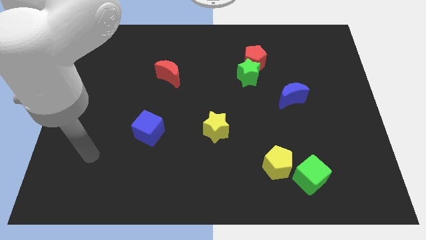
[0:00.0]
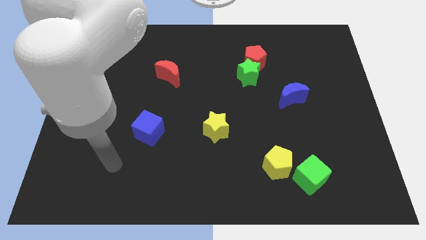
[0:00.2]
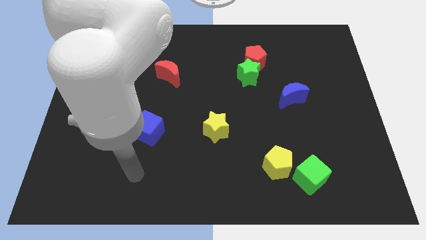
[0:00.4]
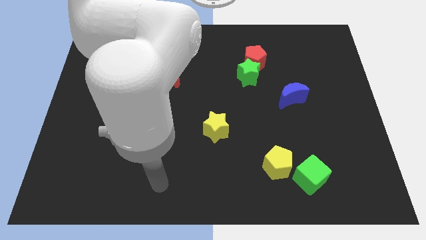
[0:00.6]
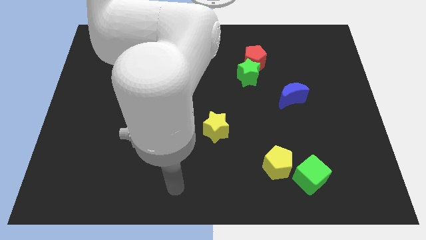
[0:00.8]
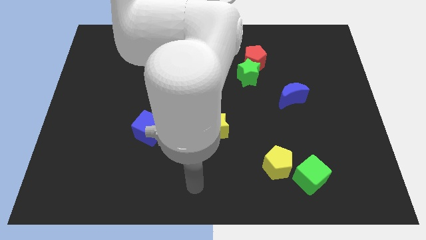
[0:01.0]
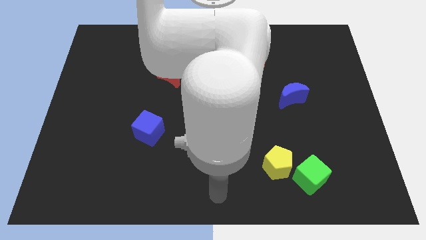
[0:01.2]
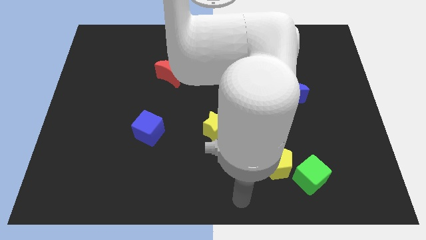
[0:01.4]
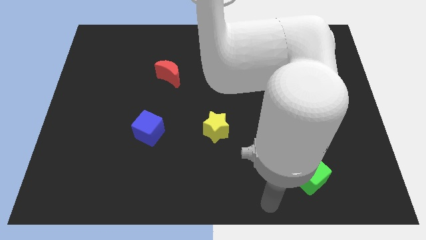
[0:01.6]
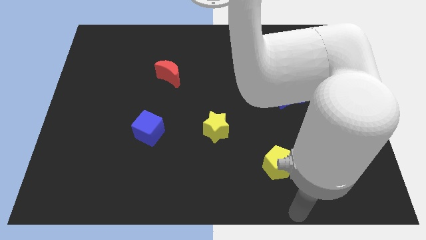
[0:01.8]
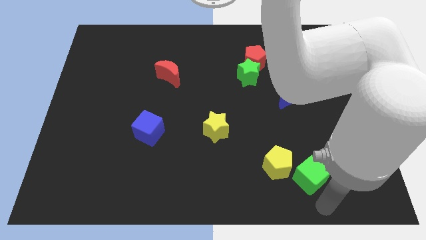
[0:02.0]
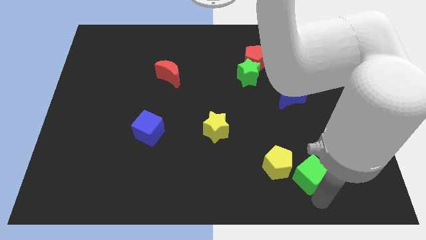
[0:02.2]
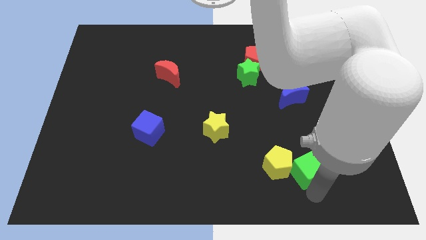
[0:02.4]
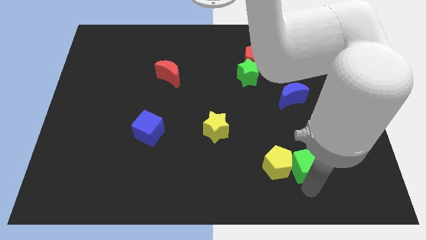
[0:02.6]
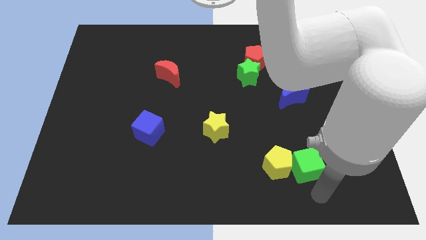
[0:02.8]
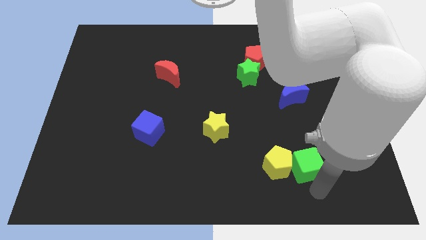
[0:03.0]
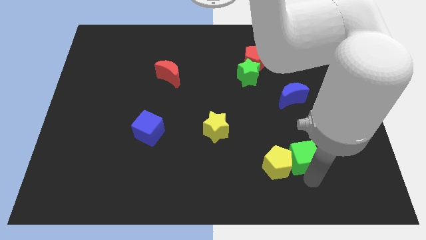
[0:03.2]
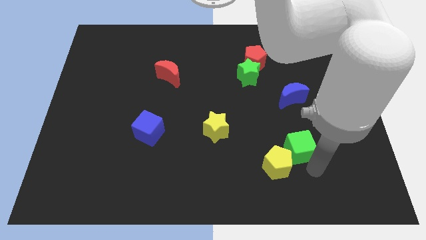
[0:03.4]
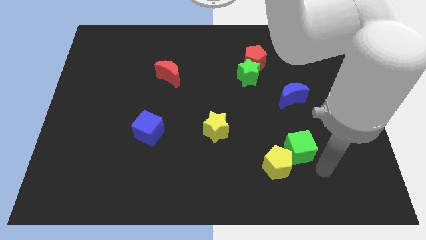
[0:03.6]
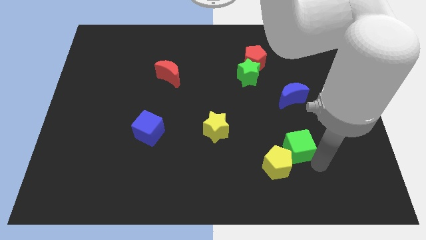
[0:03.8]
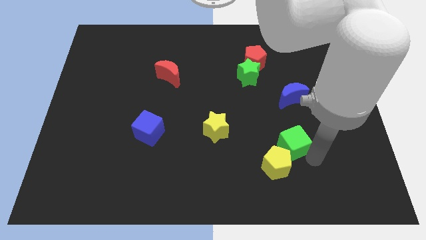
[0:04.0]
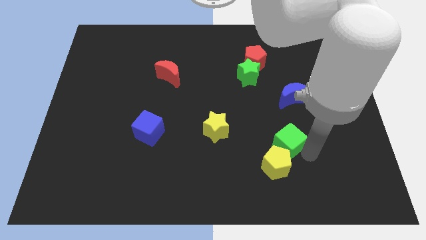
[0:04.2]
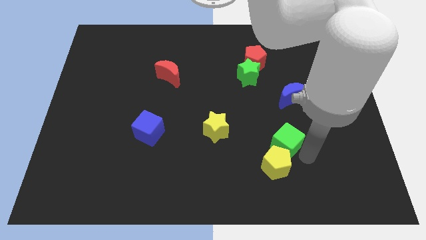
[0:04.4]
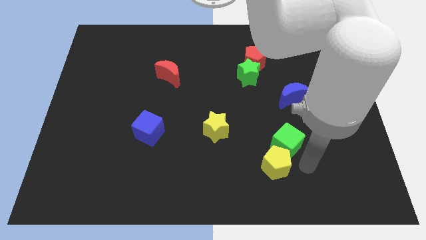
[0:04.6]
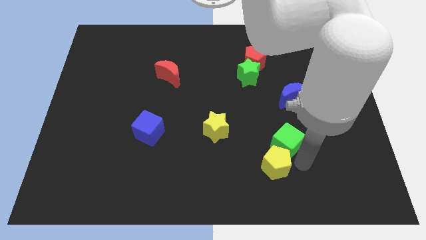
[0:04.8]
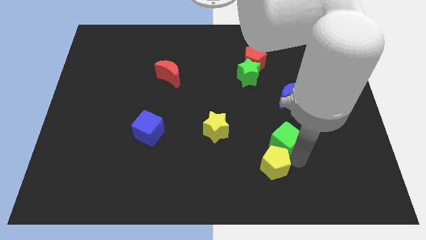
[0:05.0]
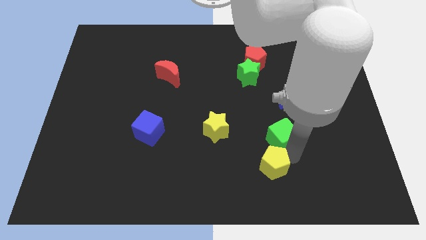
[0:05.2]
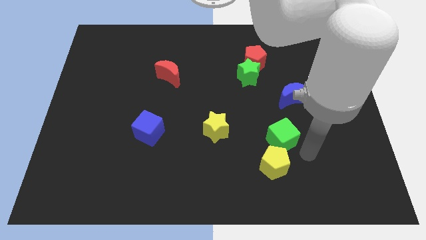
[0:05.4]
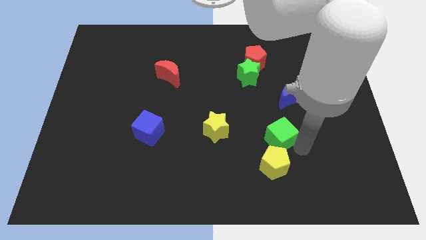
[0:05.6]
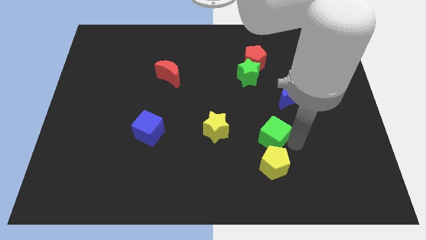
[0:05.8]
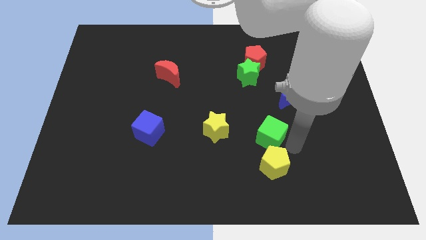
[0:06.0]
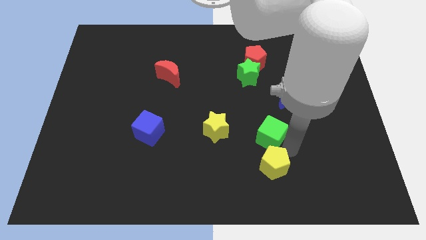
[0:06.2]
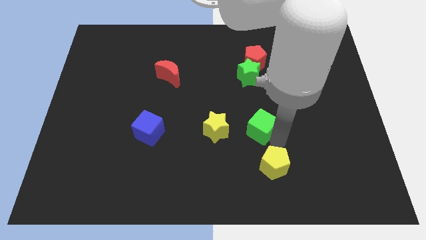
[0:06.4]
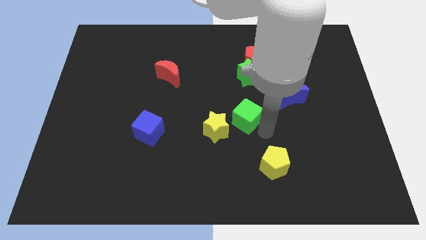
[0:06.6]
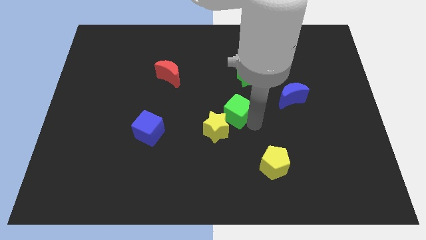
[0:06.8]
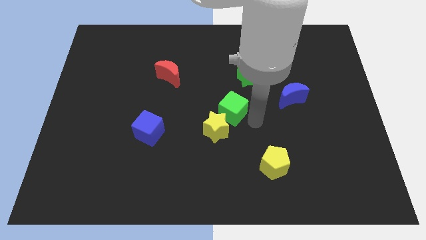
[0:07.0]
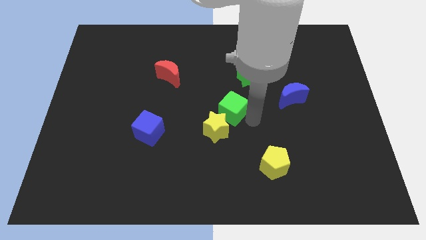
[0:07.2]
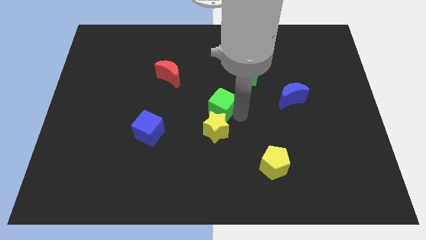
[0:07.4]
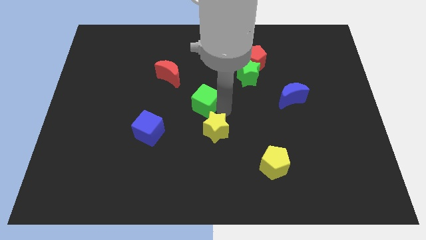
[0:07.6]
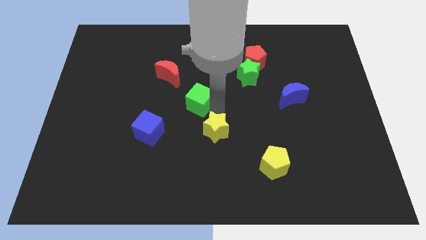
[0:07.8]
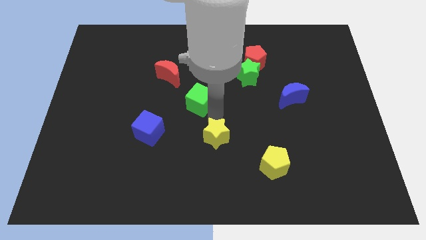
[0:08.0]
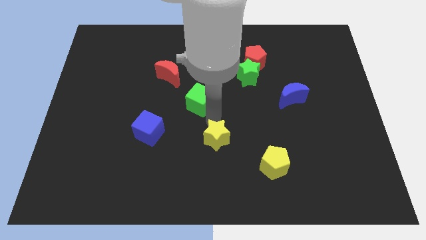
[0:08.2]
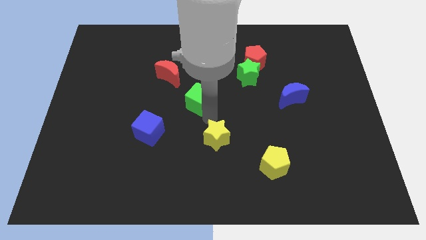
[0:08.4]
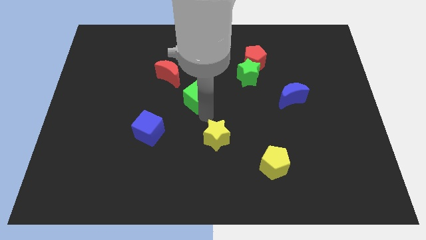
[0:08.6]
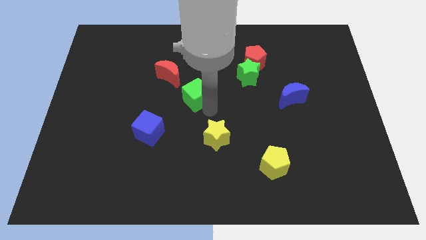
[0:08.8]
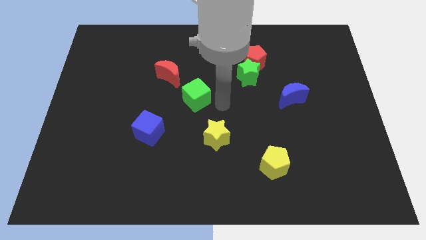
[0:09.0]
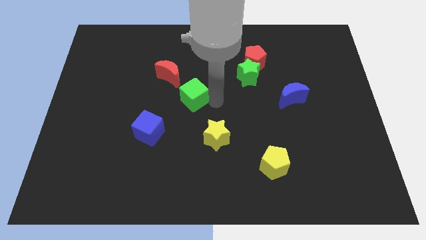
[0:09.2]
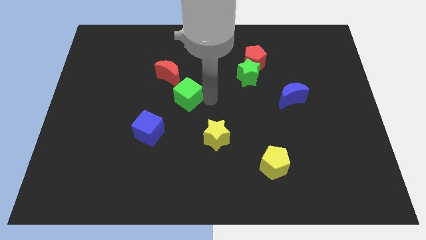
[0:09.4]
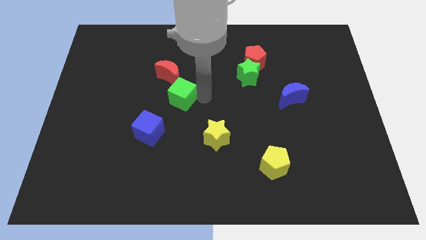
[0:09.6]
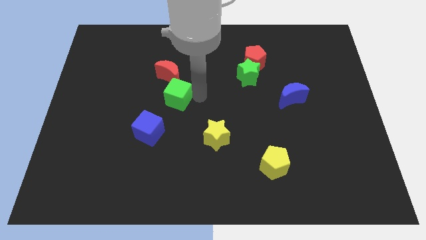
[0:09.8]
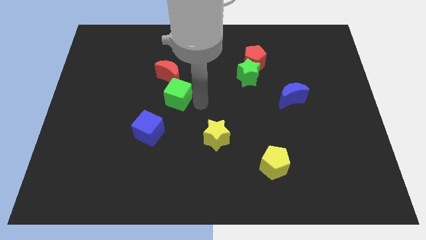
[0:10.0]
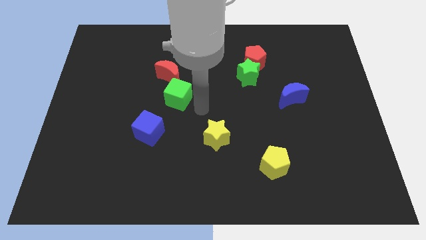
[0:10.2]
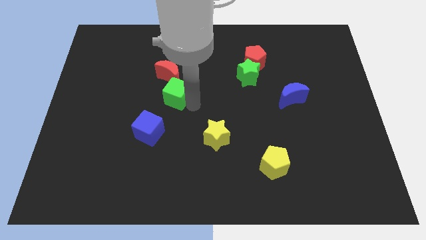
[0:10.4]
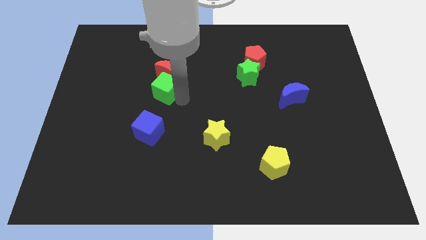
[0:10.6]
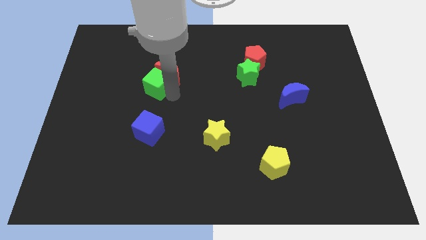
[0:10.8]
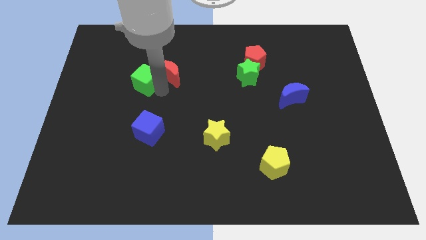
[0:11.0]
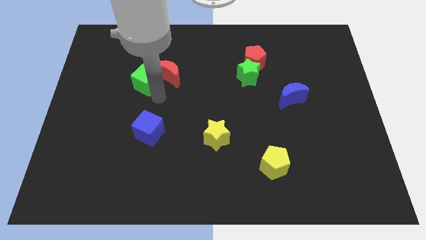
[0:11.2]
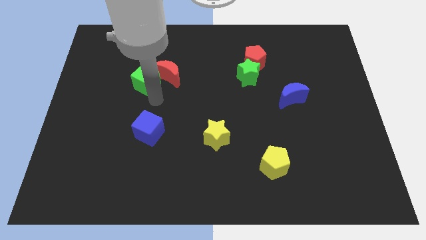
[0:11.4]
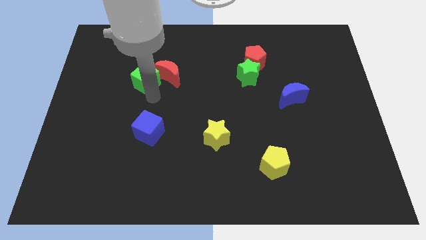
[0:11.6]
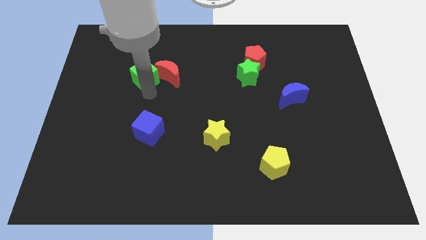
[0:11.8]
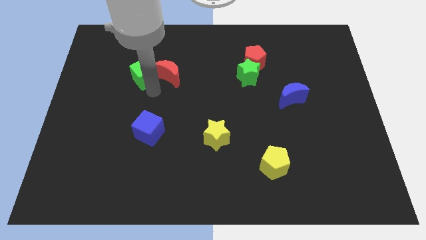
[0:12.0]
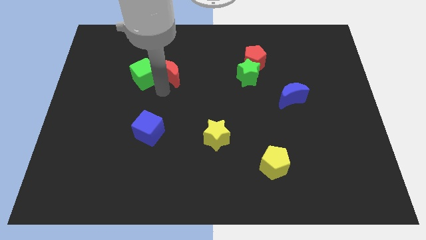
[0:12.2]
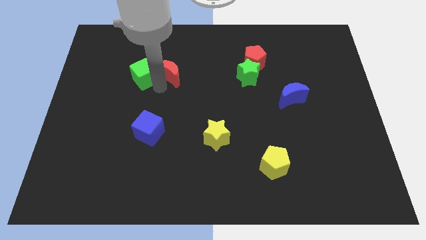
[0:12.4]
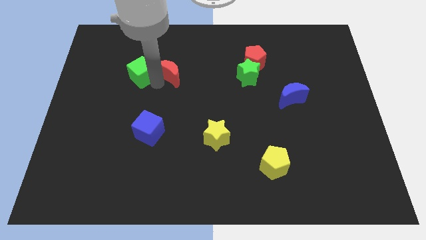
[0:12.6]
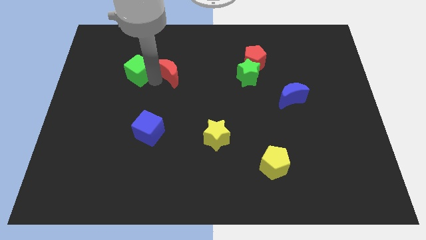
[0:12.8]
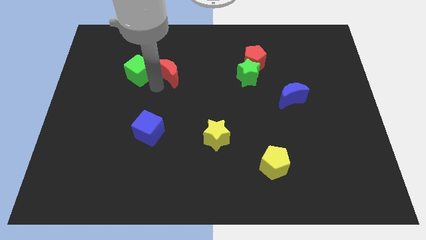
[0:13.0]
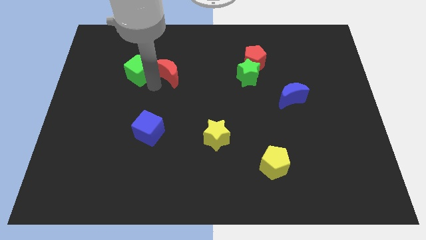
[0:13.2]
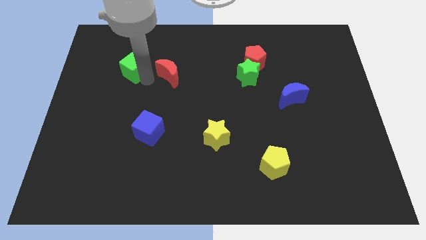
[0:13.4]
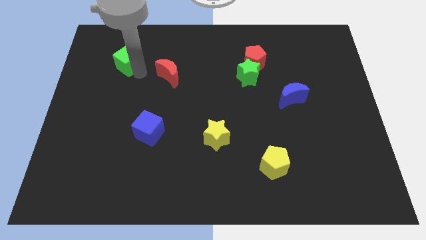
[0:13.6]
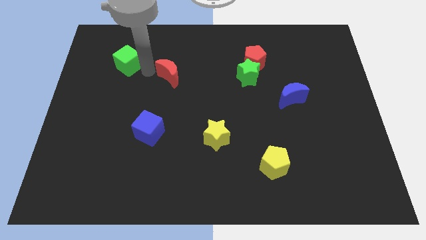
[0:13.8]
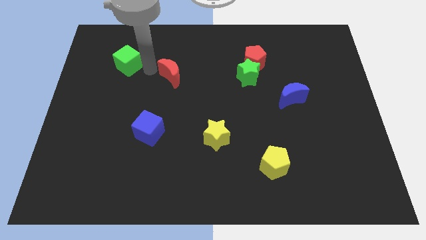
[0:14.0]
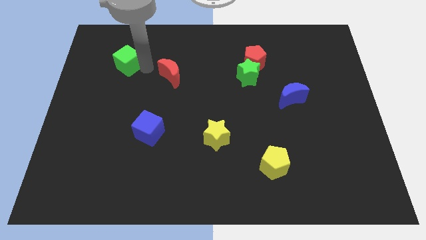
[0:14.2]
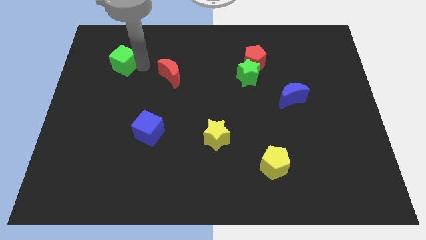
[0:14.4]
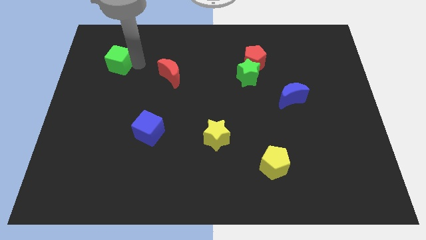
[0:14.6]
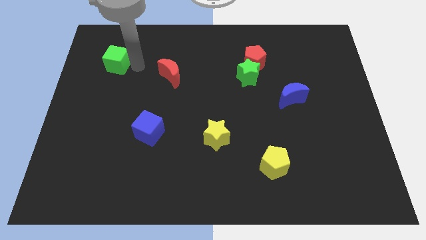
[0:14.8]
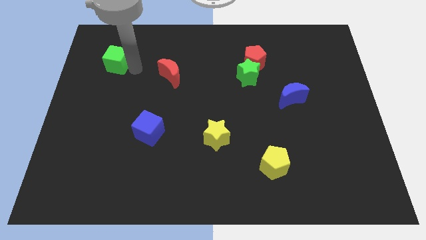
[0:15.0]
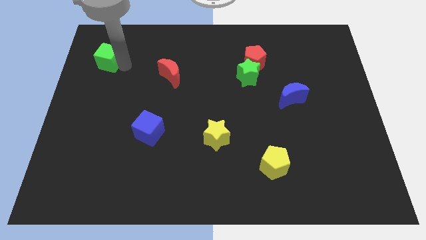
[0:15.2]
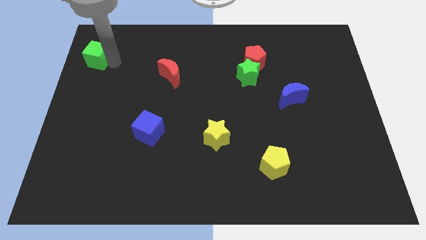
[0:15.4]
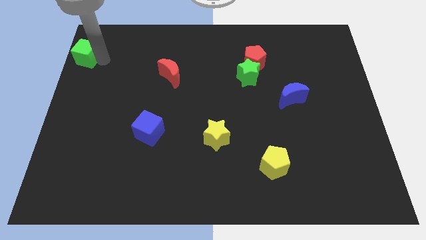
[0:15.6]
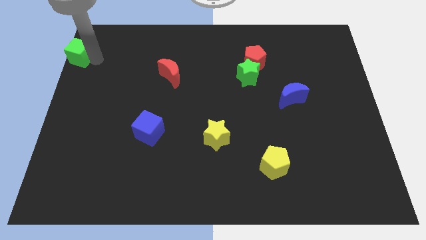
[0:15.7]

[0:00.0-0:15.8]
slide the green cube to the top left
